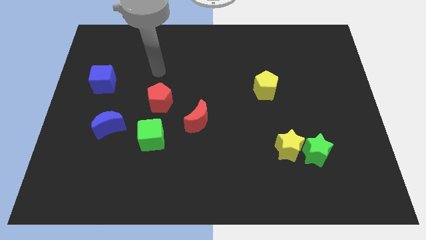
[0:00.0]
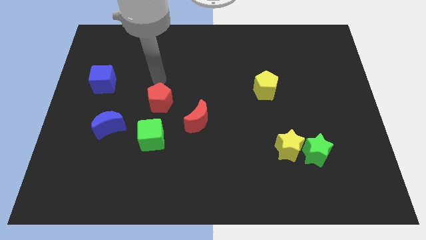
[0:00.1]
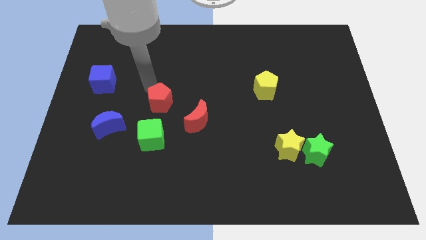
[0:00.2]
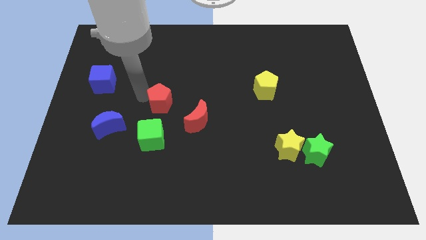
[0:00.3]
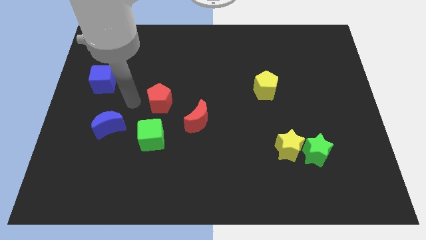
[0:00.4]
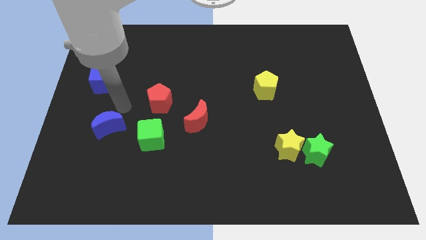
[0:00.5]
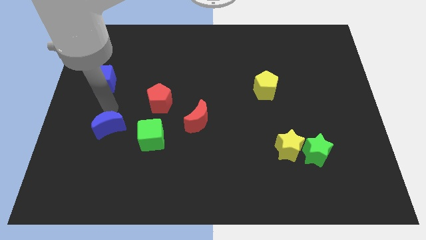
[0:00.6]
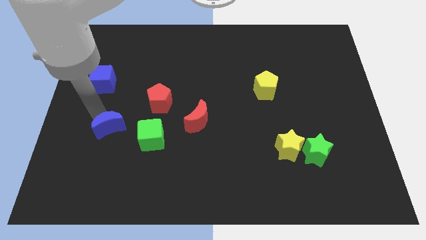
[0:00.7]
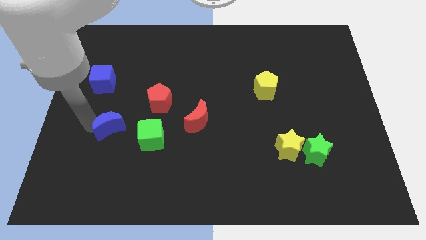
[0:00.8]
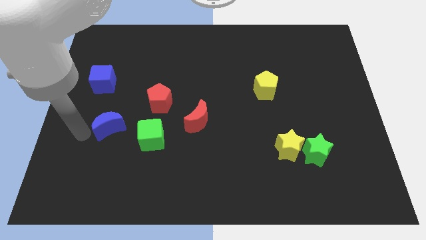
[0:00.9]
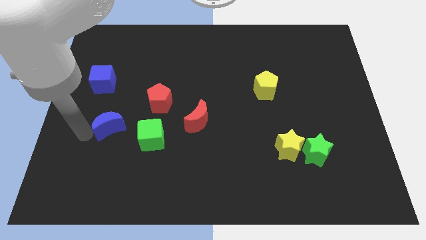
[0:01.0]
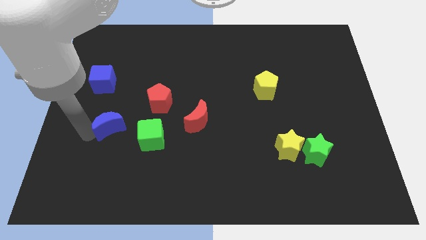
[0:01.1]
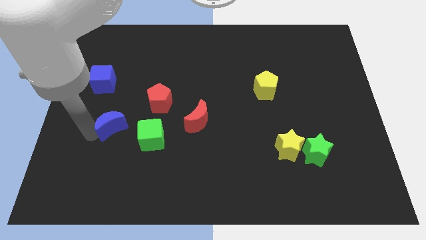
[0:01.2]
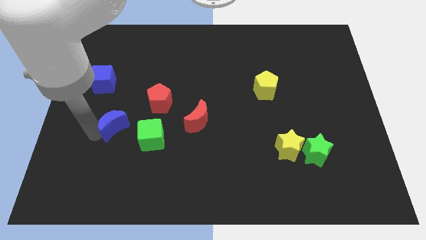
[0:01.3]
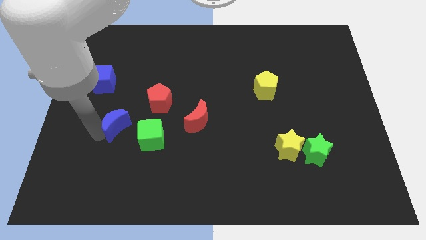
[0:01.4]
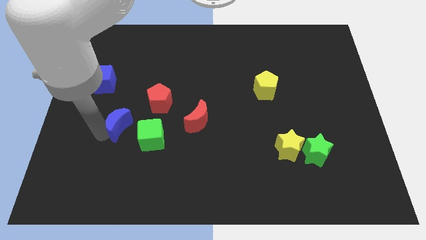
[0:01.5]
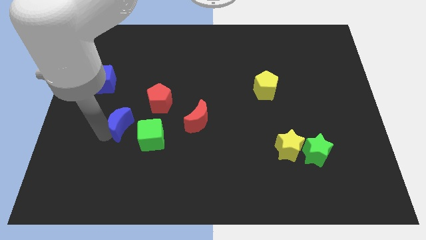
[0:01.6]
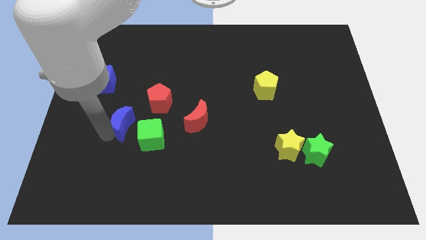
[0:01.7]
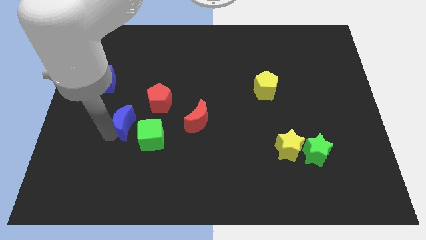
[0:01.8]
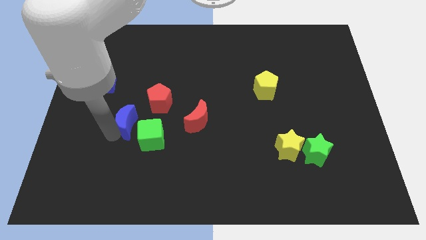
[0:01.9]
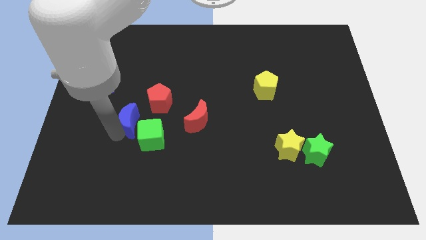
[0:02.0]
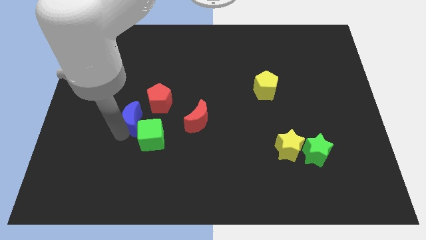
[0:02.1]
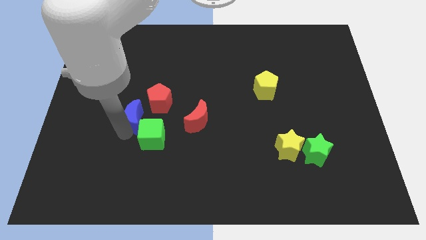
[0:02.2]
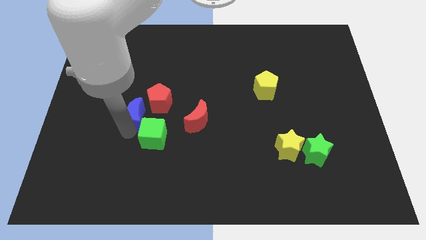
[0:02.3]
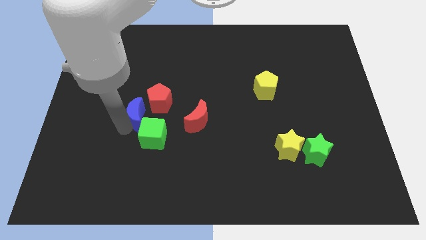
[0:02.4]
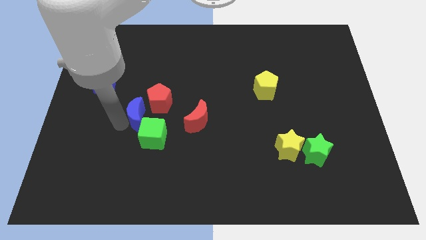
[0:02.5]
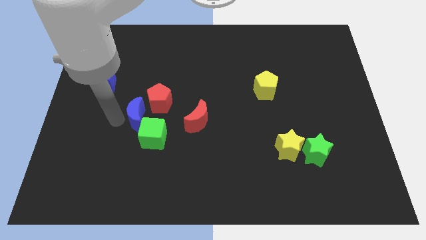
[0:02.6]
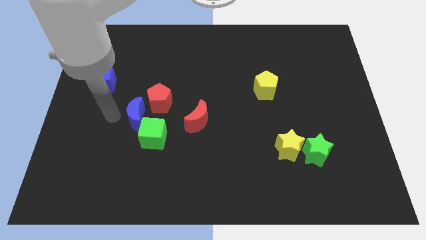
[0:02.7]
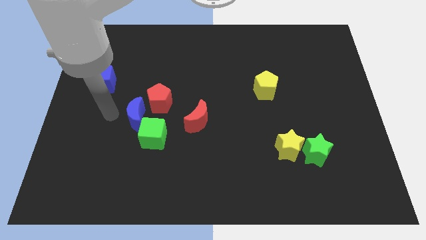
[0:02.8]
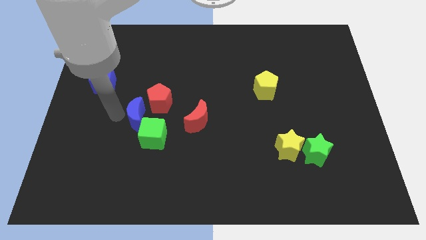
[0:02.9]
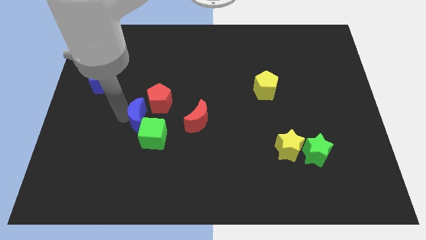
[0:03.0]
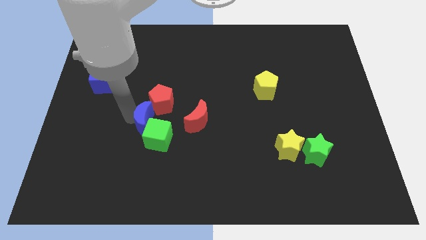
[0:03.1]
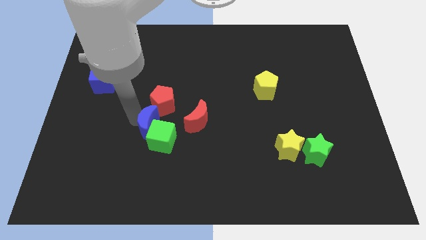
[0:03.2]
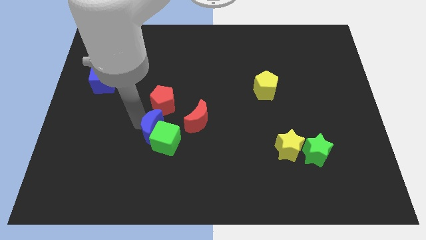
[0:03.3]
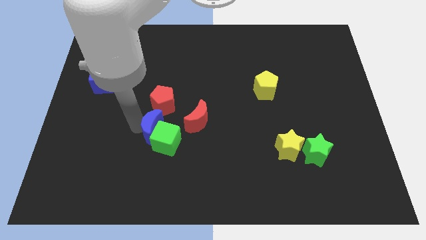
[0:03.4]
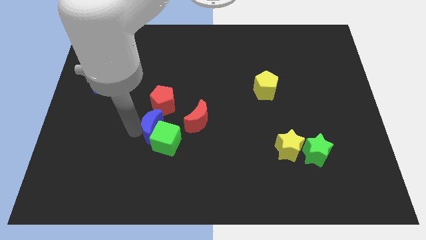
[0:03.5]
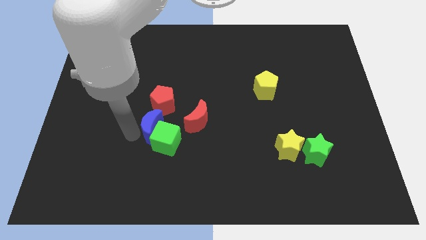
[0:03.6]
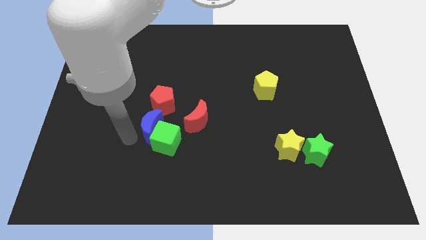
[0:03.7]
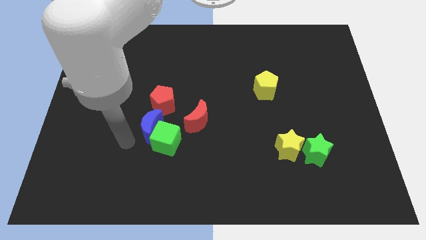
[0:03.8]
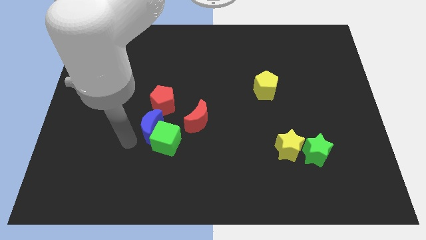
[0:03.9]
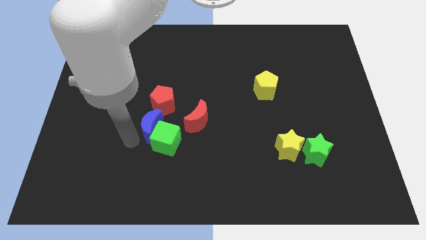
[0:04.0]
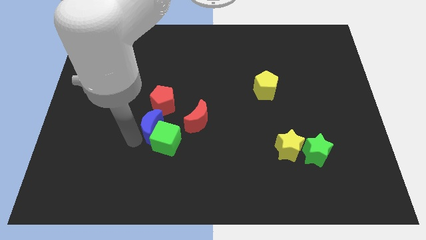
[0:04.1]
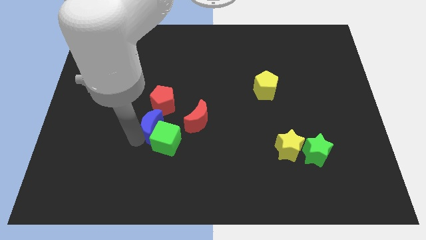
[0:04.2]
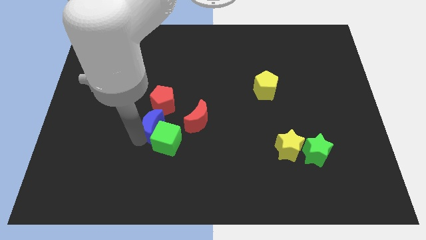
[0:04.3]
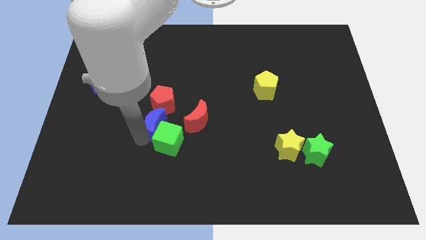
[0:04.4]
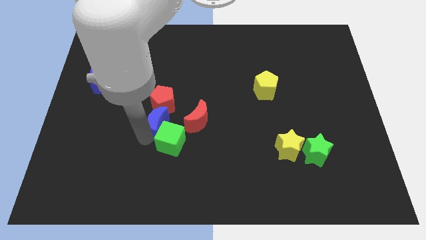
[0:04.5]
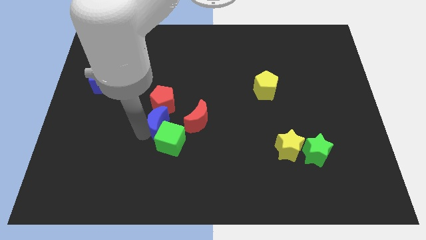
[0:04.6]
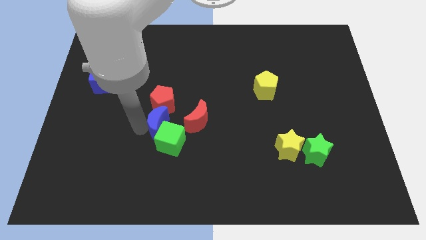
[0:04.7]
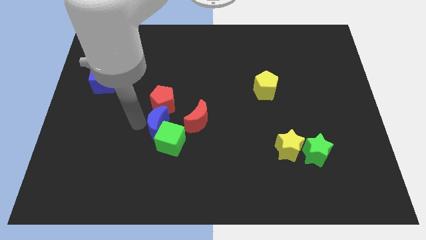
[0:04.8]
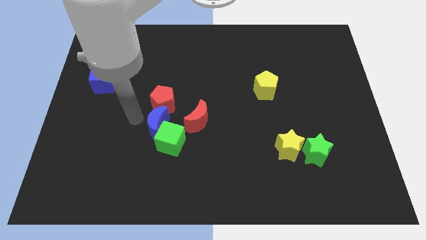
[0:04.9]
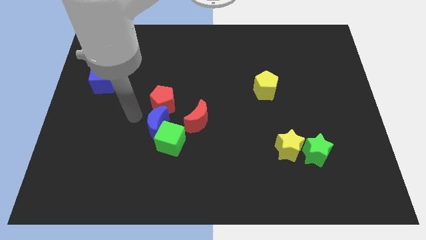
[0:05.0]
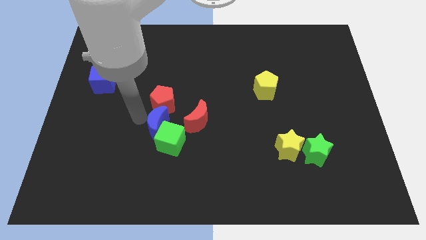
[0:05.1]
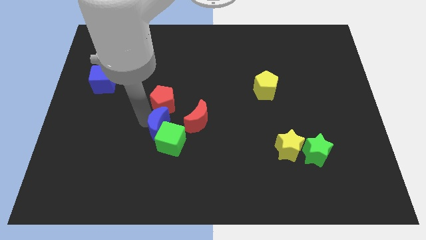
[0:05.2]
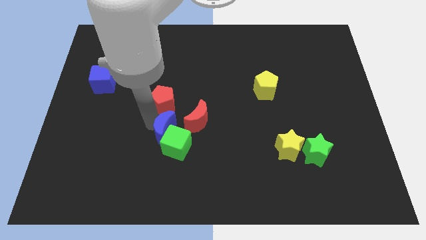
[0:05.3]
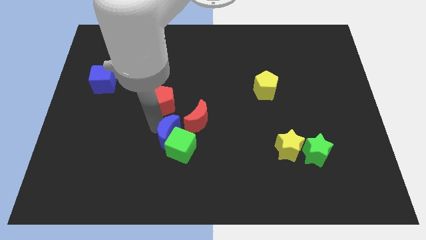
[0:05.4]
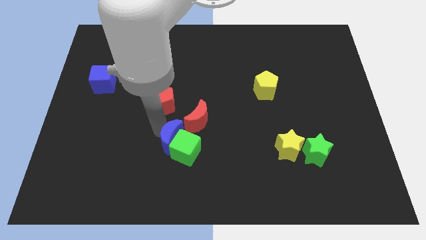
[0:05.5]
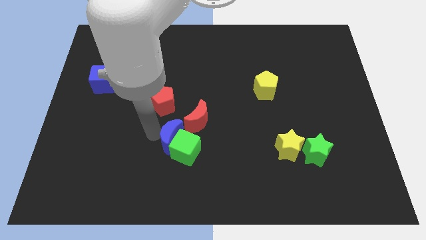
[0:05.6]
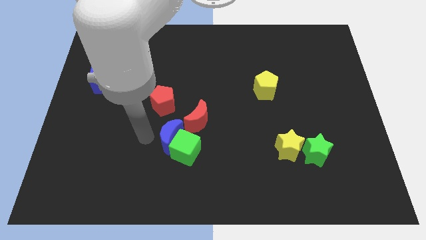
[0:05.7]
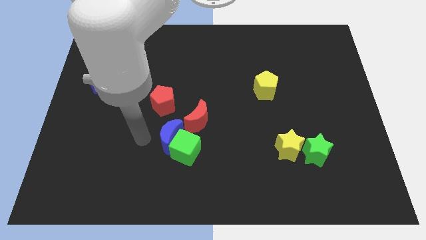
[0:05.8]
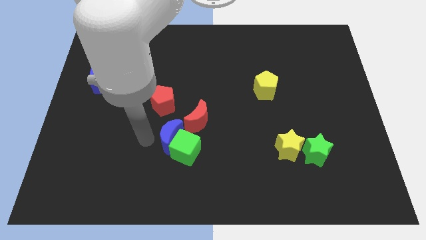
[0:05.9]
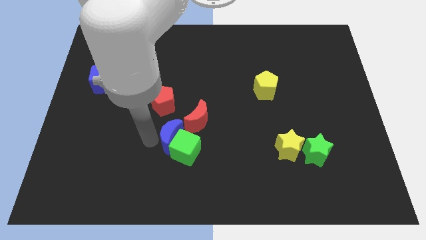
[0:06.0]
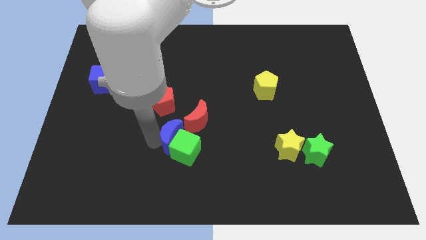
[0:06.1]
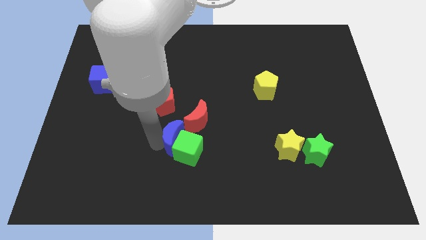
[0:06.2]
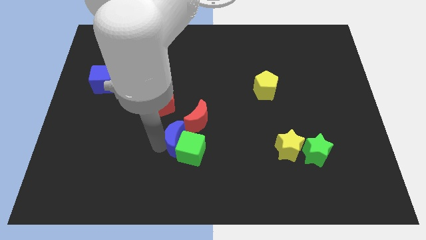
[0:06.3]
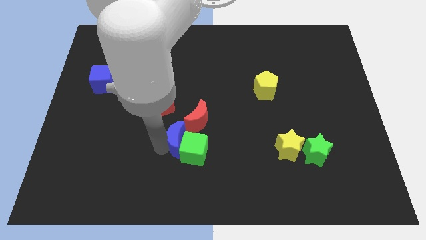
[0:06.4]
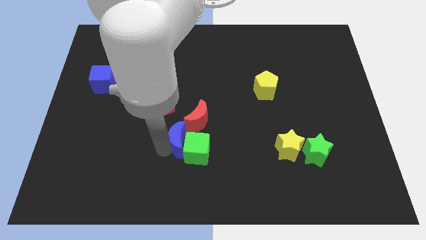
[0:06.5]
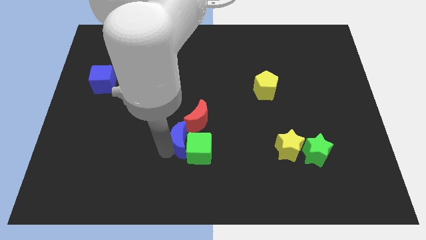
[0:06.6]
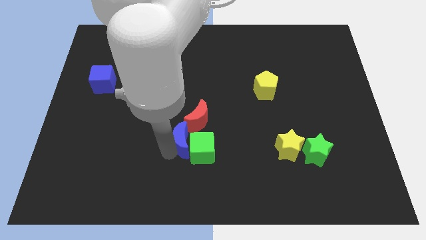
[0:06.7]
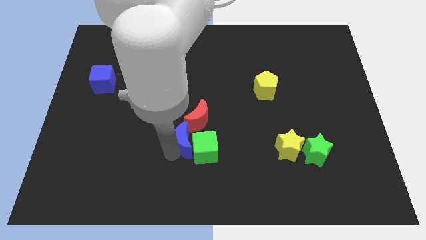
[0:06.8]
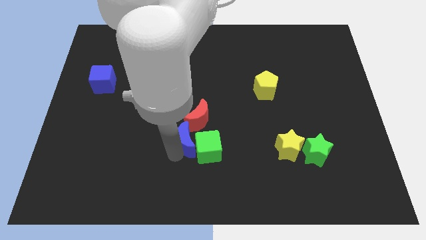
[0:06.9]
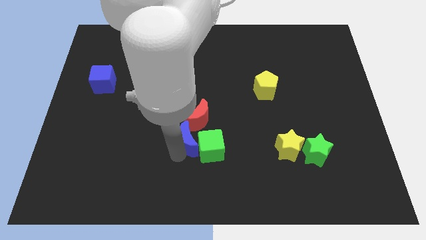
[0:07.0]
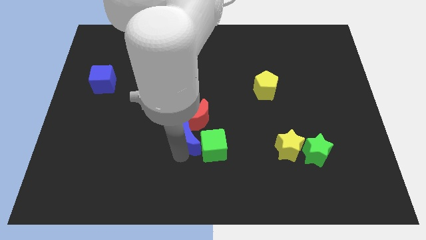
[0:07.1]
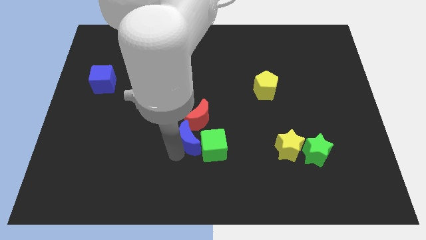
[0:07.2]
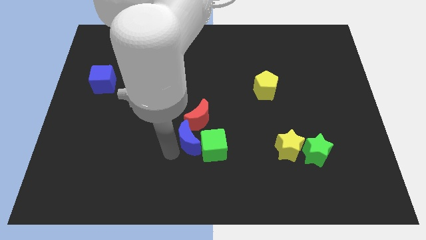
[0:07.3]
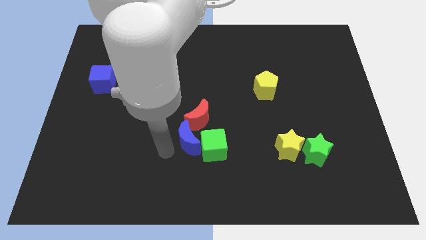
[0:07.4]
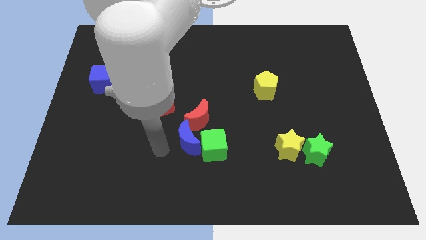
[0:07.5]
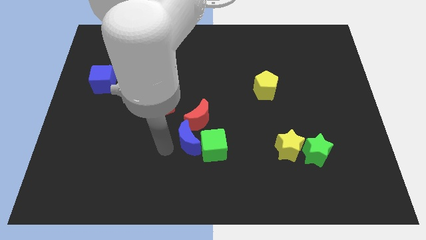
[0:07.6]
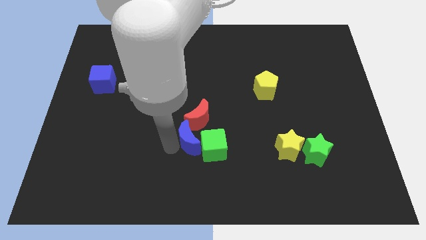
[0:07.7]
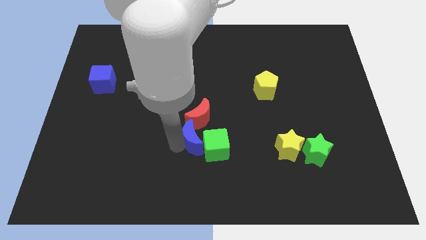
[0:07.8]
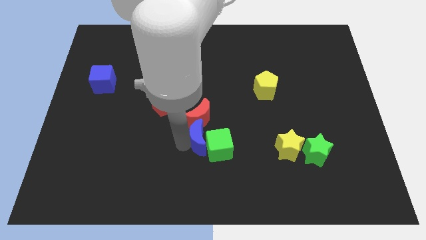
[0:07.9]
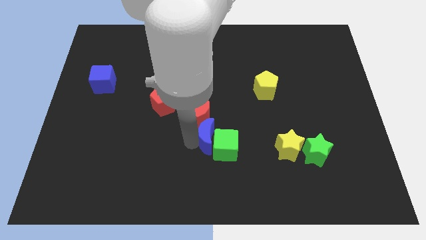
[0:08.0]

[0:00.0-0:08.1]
push the blue moon right
